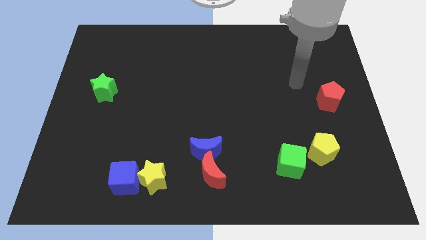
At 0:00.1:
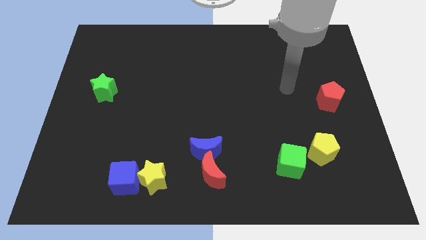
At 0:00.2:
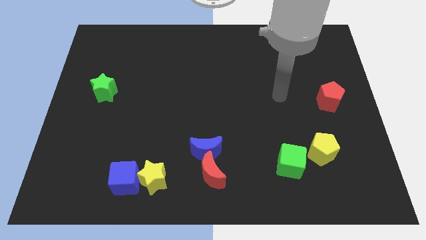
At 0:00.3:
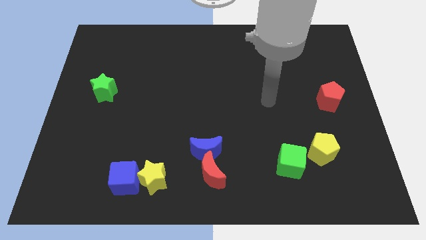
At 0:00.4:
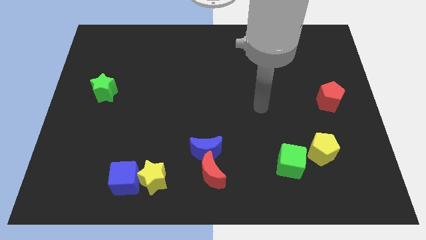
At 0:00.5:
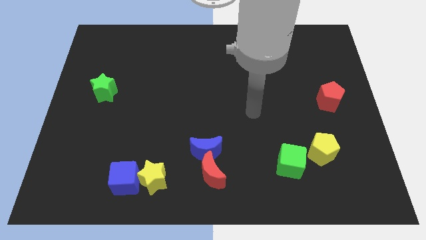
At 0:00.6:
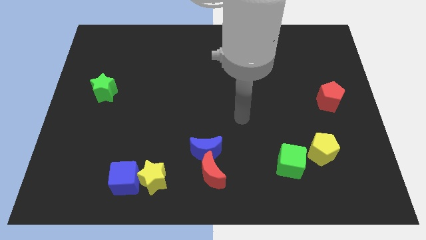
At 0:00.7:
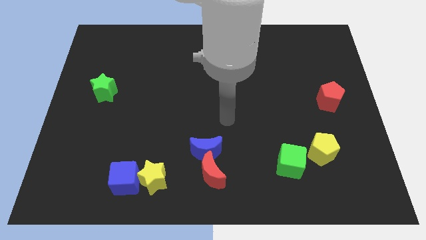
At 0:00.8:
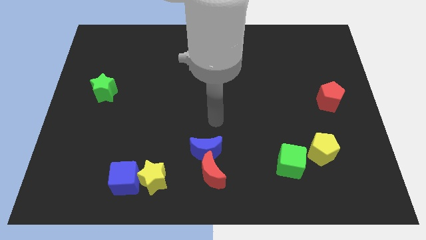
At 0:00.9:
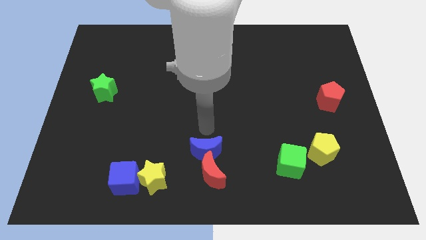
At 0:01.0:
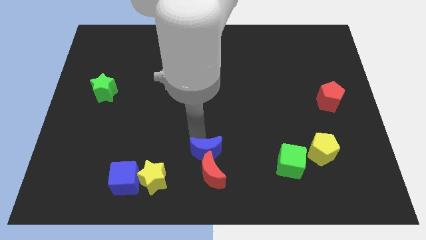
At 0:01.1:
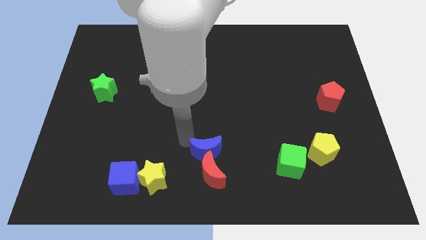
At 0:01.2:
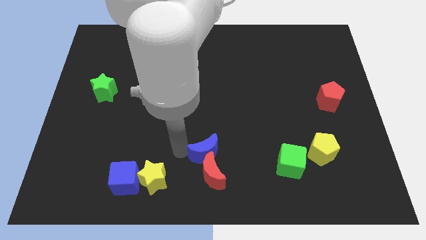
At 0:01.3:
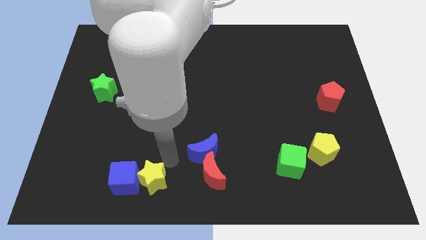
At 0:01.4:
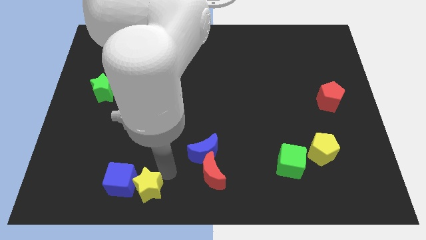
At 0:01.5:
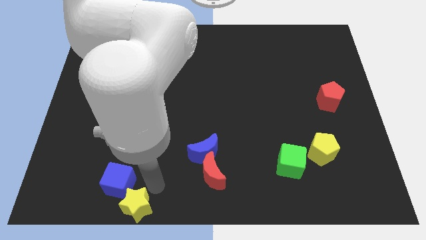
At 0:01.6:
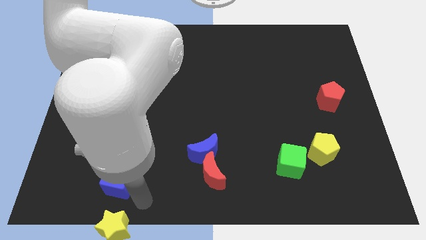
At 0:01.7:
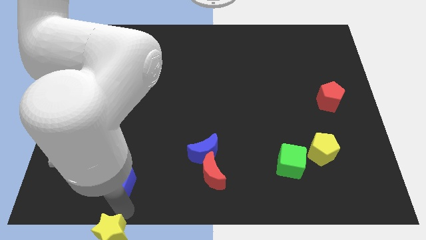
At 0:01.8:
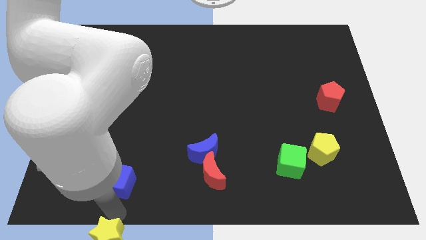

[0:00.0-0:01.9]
pull the blue cube apart from the yellow star

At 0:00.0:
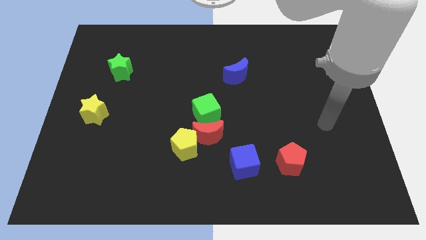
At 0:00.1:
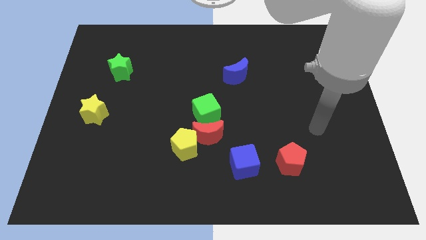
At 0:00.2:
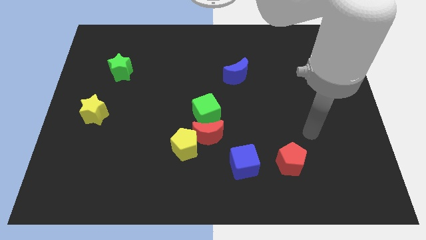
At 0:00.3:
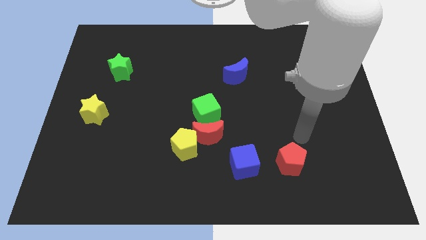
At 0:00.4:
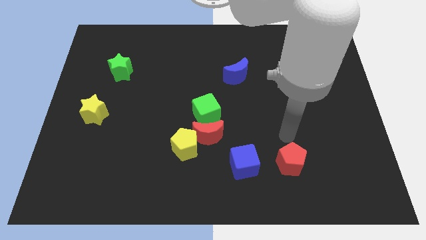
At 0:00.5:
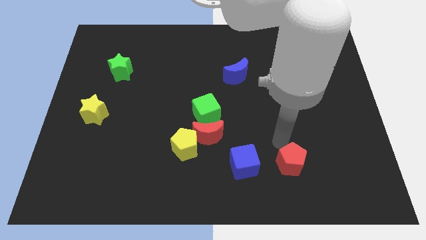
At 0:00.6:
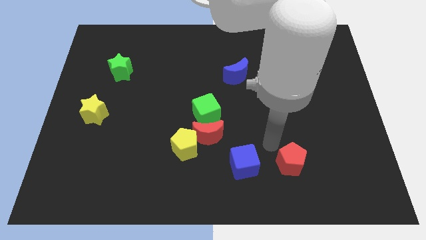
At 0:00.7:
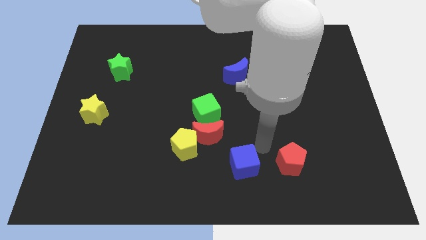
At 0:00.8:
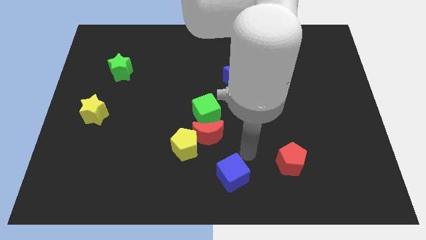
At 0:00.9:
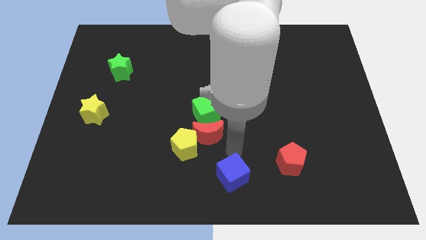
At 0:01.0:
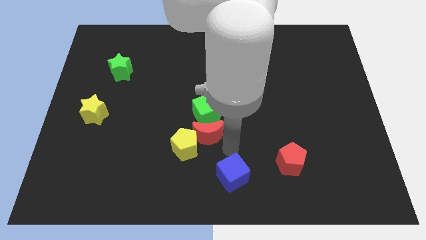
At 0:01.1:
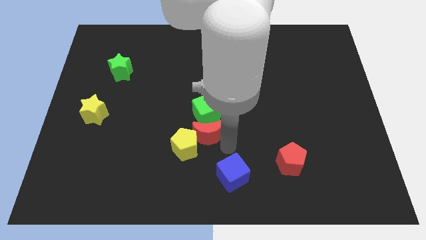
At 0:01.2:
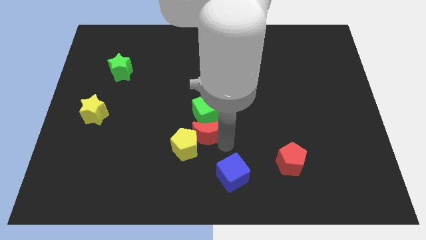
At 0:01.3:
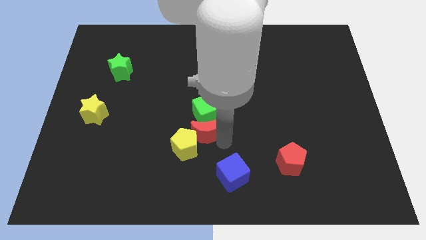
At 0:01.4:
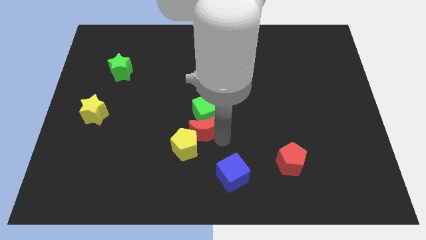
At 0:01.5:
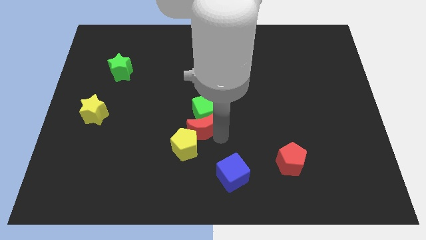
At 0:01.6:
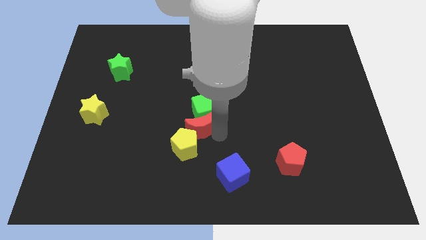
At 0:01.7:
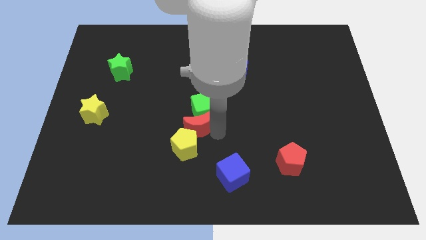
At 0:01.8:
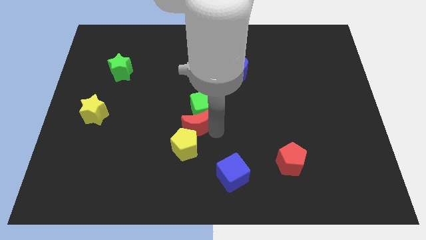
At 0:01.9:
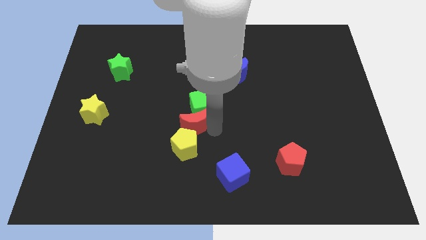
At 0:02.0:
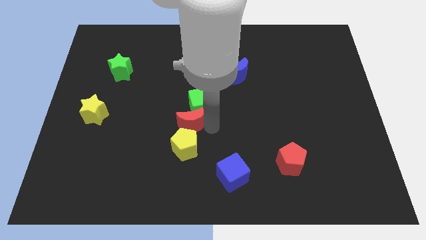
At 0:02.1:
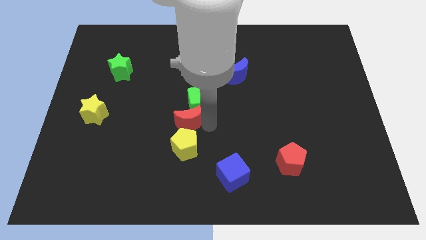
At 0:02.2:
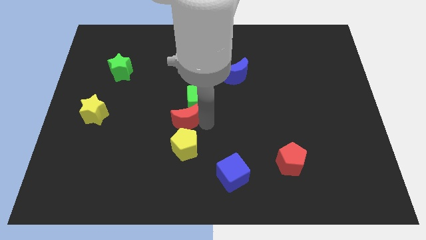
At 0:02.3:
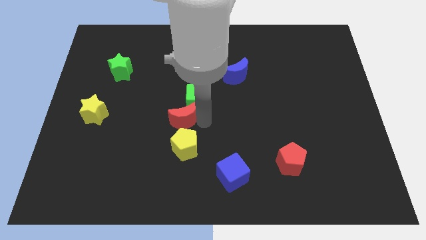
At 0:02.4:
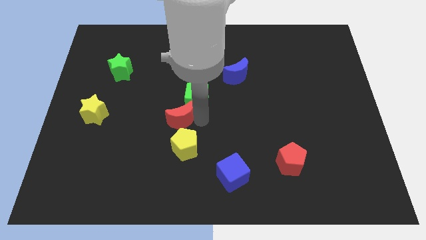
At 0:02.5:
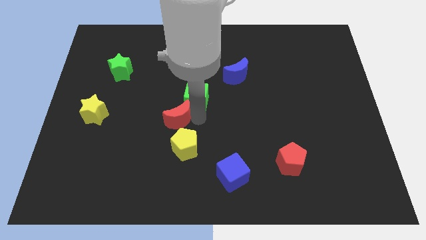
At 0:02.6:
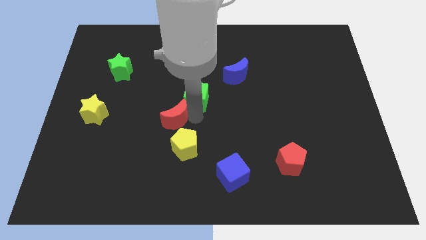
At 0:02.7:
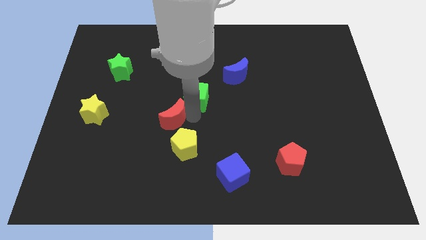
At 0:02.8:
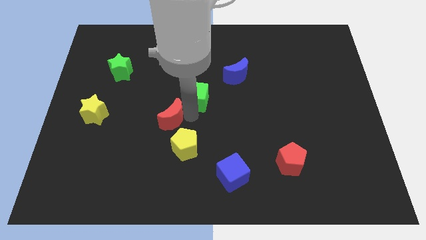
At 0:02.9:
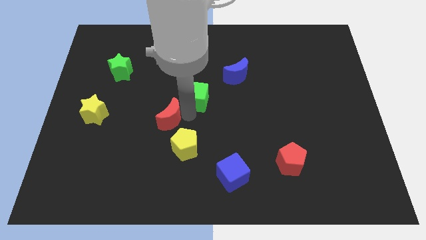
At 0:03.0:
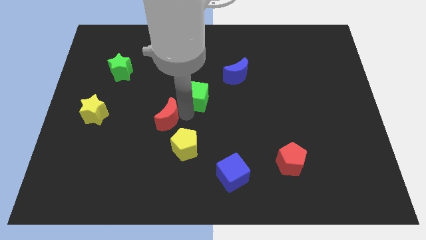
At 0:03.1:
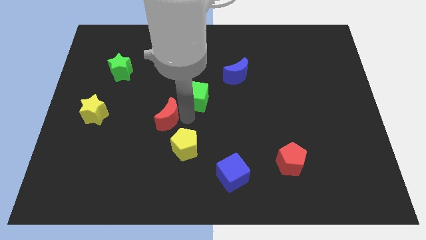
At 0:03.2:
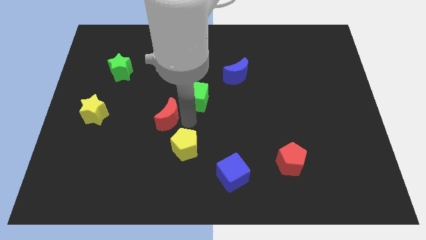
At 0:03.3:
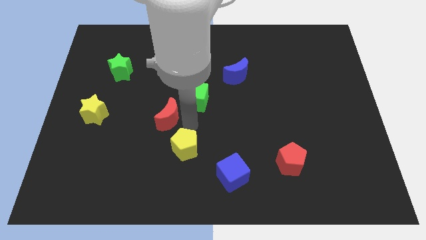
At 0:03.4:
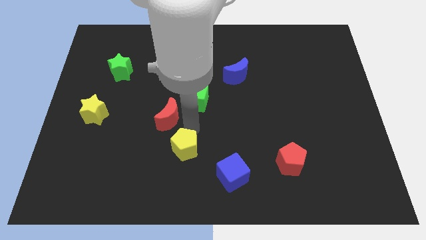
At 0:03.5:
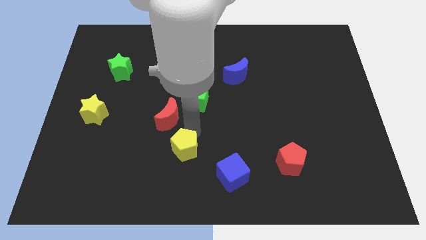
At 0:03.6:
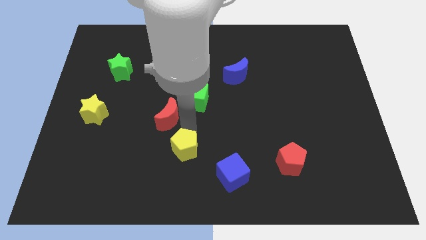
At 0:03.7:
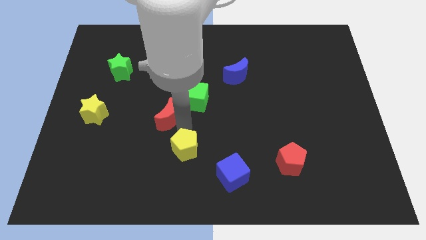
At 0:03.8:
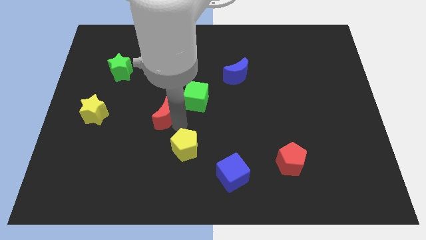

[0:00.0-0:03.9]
pull the red moon apart from the yellow pentagon, green cube, and blue cube

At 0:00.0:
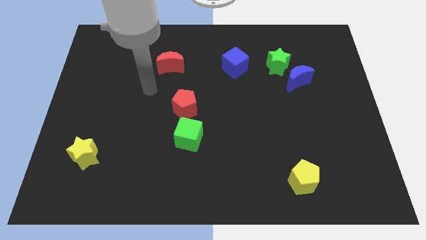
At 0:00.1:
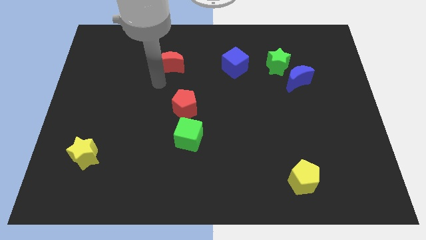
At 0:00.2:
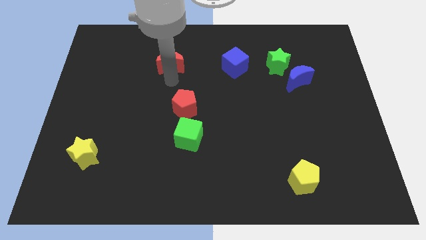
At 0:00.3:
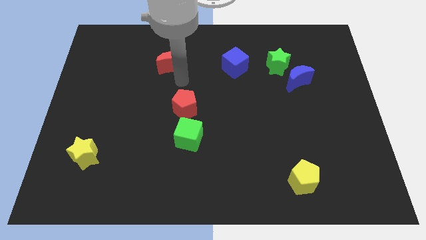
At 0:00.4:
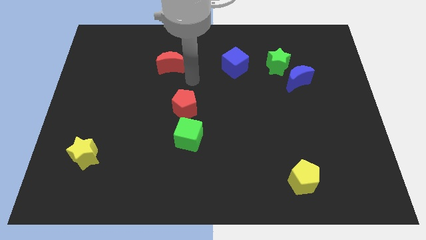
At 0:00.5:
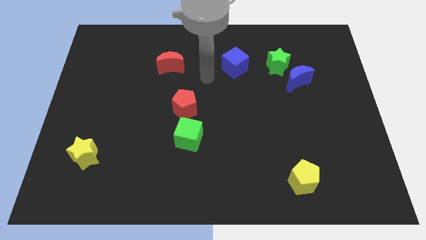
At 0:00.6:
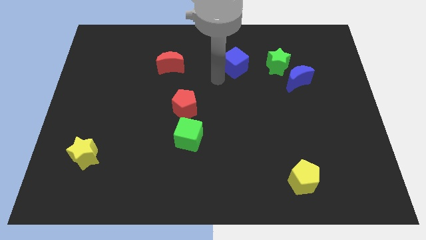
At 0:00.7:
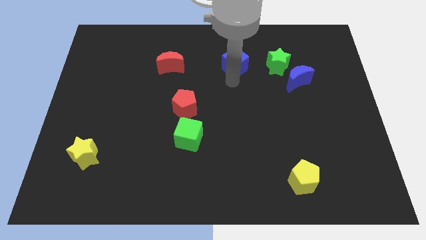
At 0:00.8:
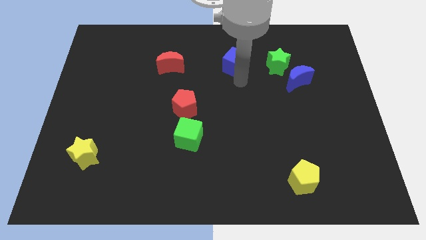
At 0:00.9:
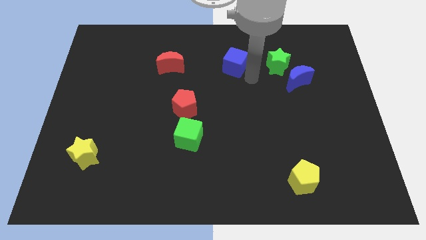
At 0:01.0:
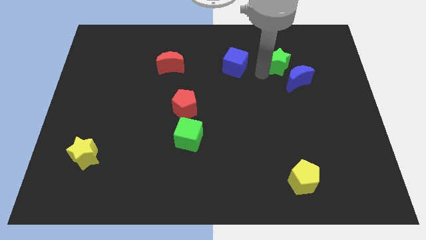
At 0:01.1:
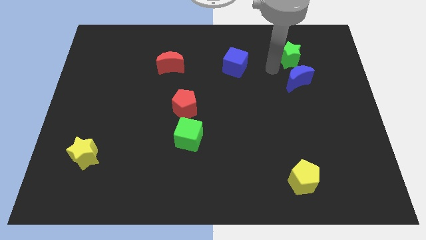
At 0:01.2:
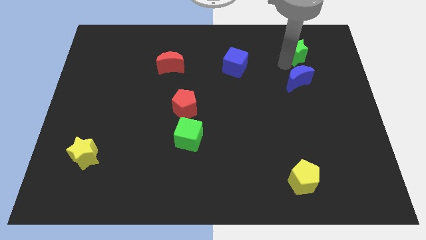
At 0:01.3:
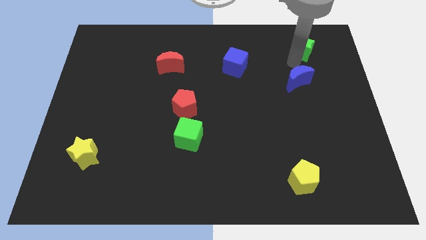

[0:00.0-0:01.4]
move the blue moon away from the green star

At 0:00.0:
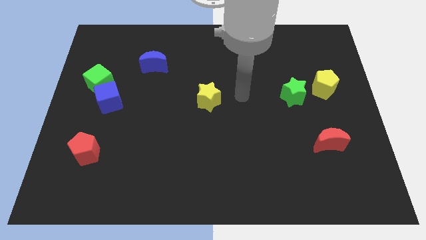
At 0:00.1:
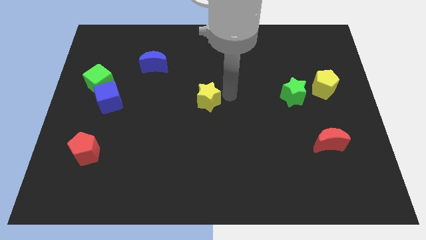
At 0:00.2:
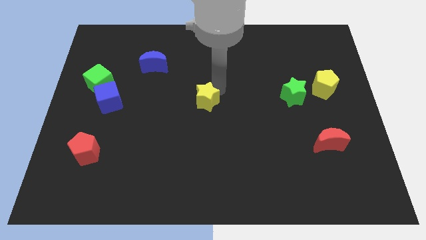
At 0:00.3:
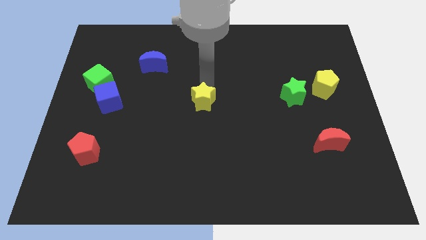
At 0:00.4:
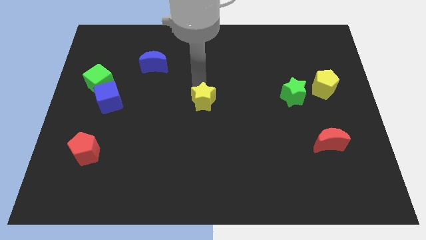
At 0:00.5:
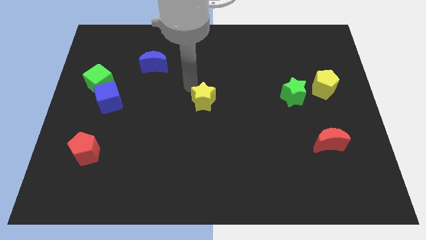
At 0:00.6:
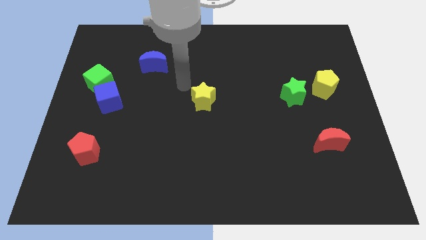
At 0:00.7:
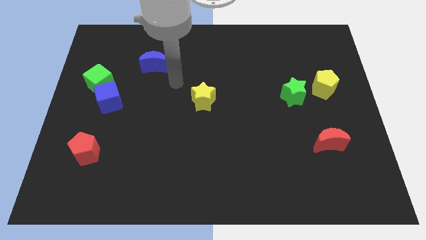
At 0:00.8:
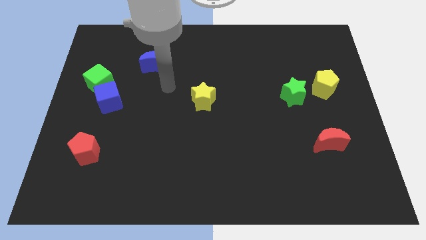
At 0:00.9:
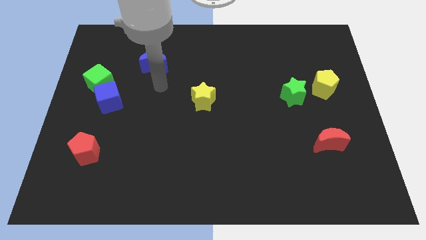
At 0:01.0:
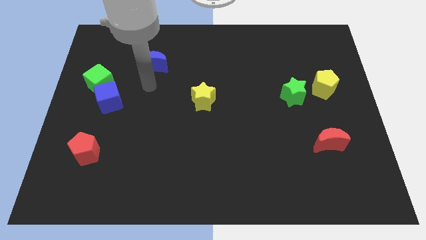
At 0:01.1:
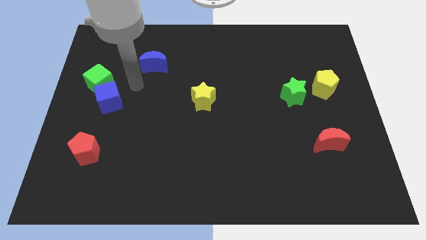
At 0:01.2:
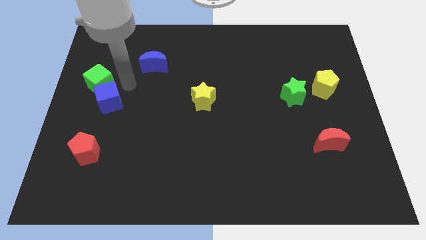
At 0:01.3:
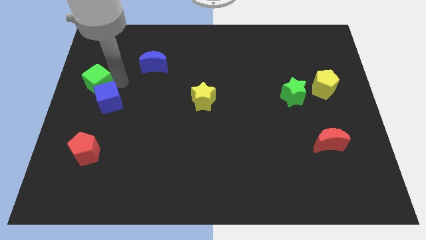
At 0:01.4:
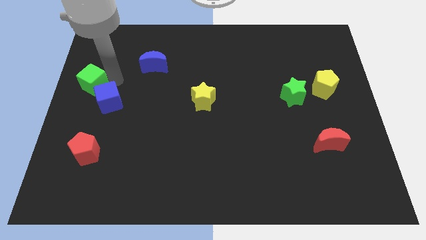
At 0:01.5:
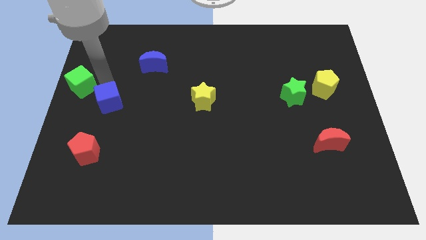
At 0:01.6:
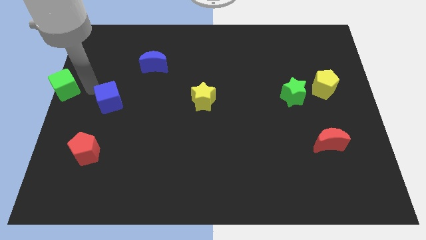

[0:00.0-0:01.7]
separate the blue cube from the green cube

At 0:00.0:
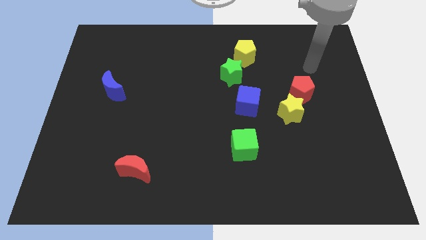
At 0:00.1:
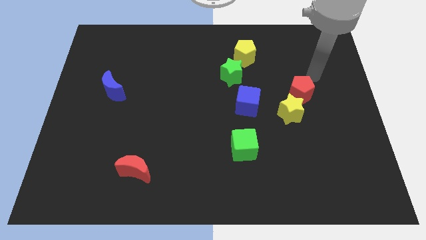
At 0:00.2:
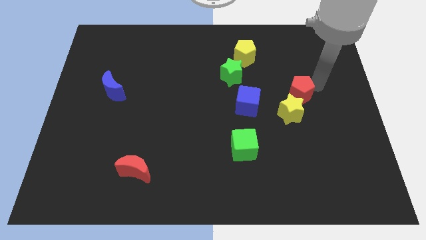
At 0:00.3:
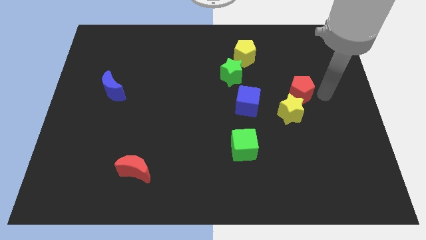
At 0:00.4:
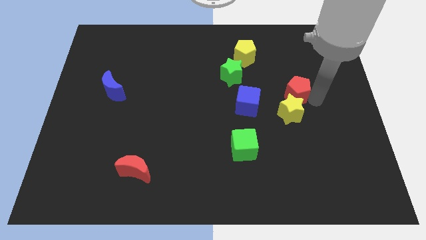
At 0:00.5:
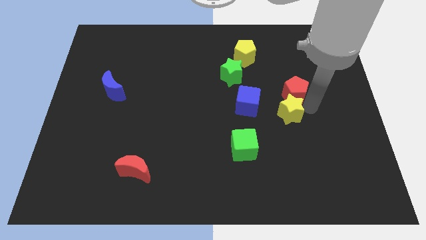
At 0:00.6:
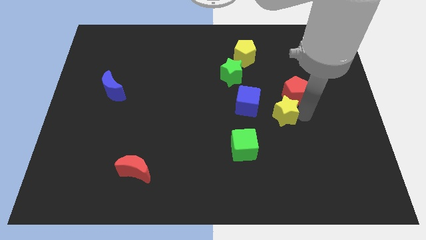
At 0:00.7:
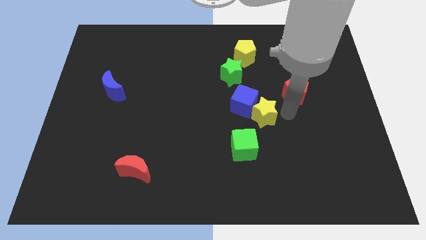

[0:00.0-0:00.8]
pull the red pentagon apart from the yellow star
